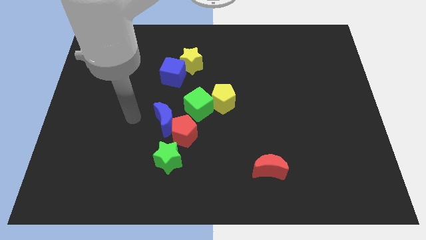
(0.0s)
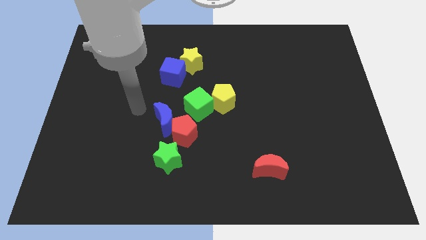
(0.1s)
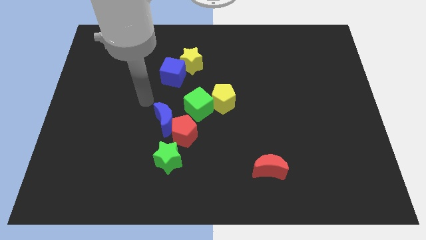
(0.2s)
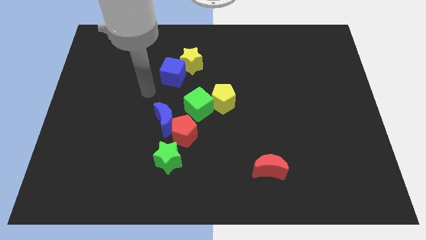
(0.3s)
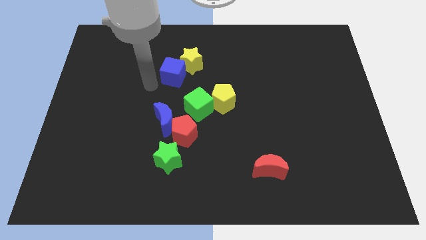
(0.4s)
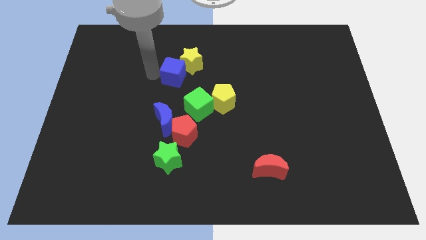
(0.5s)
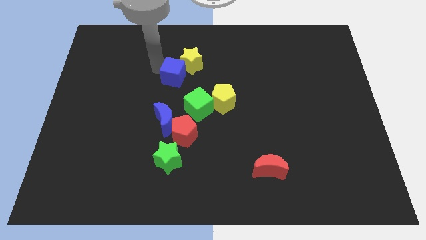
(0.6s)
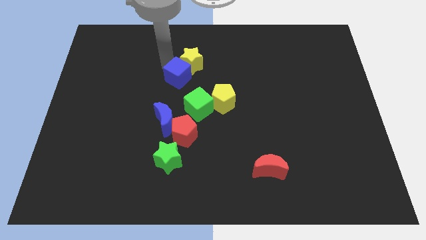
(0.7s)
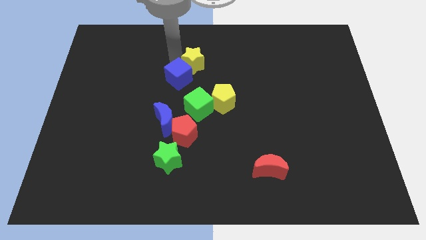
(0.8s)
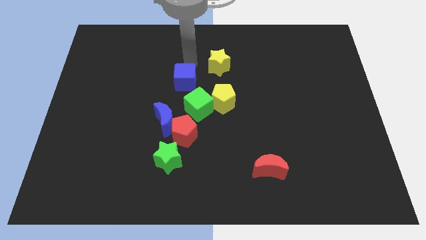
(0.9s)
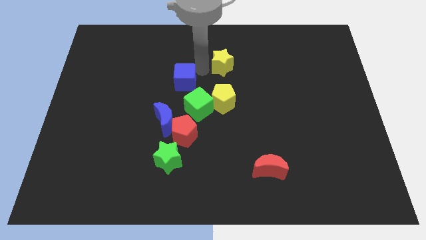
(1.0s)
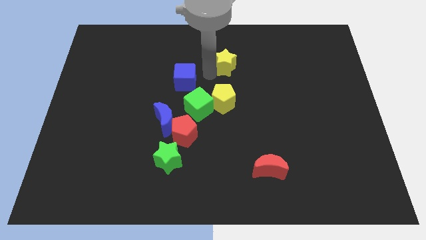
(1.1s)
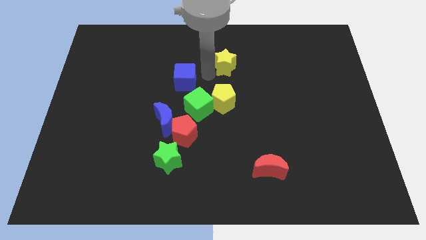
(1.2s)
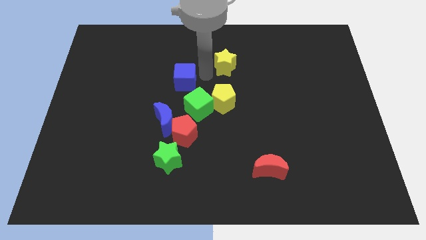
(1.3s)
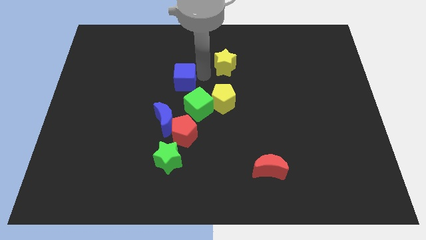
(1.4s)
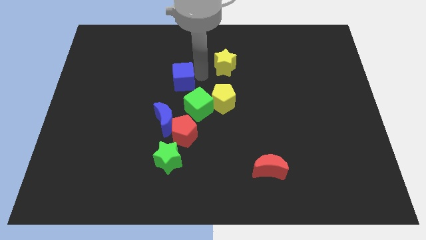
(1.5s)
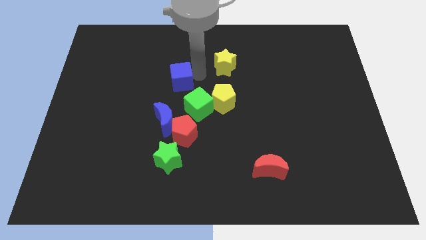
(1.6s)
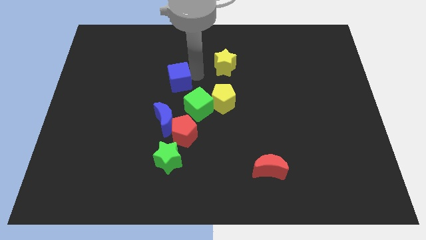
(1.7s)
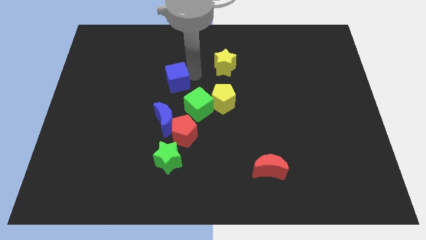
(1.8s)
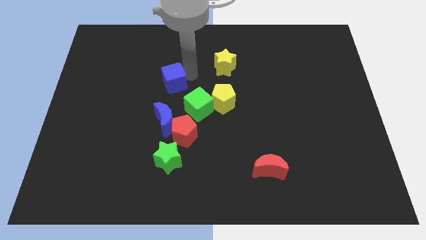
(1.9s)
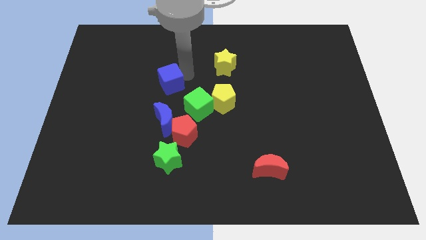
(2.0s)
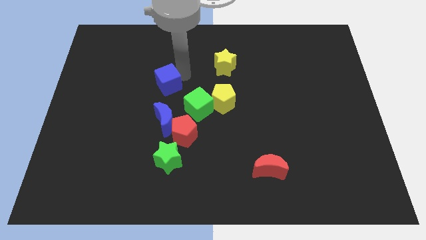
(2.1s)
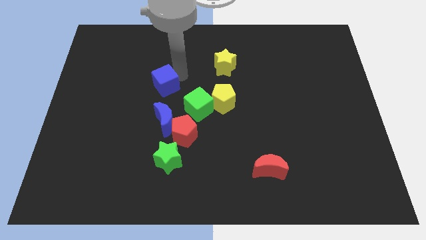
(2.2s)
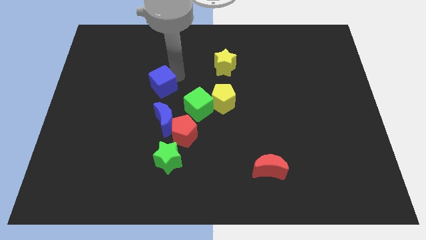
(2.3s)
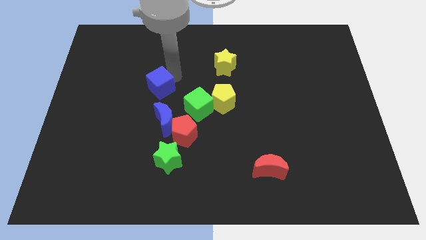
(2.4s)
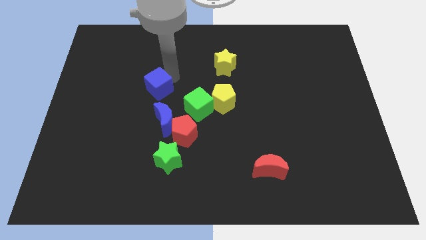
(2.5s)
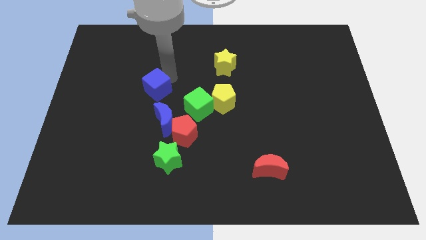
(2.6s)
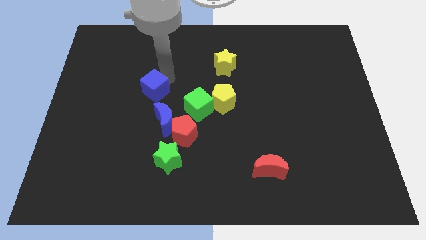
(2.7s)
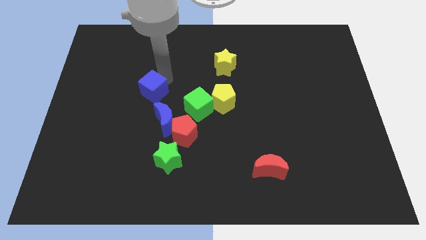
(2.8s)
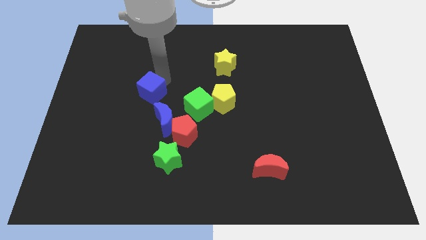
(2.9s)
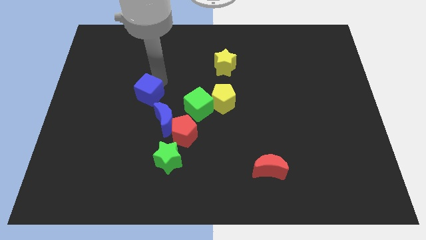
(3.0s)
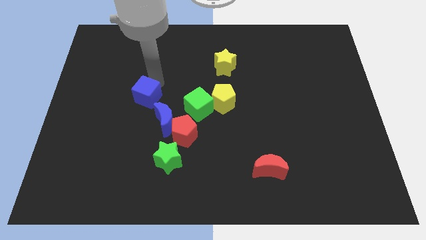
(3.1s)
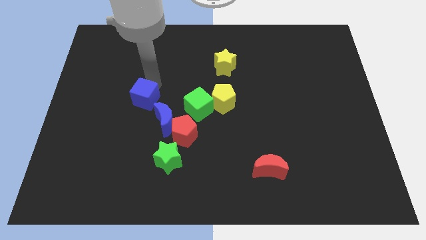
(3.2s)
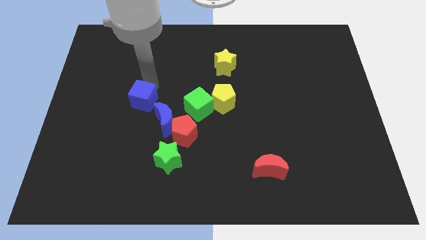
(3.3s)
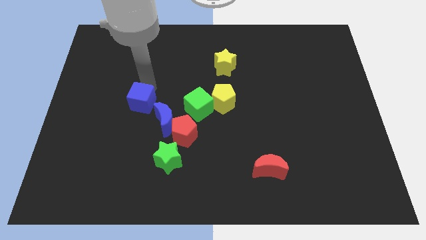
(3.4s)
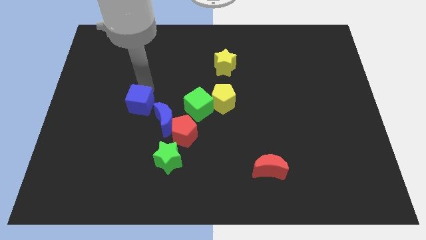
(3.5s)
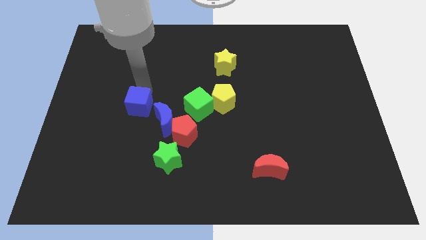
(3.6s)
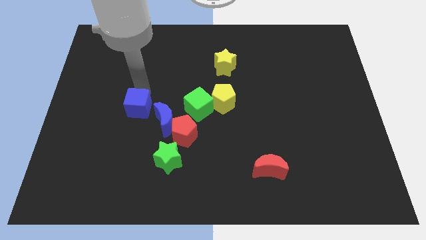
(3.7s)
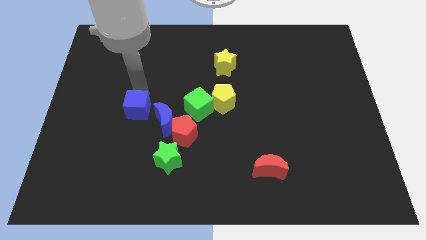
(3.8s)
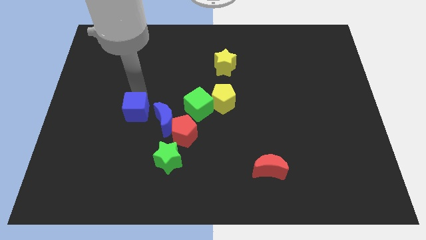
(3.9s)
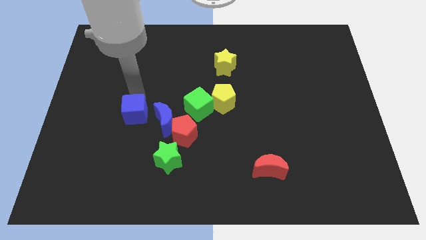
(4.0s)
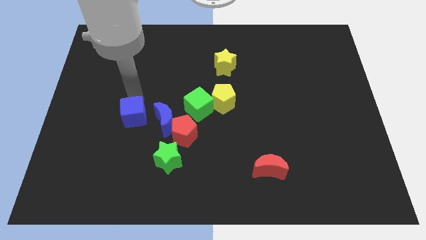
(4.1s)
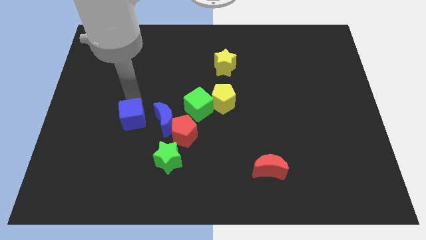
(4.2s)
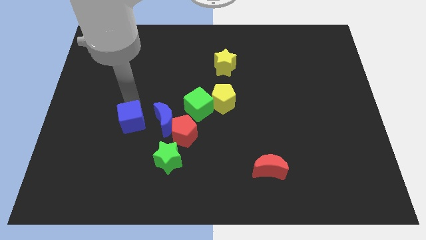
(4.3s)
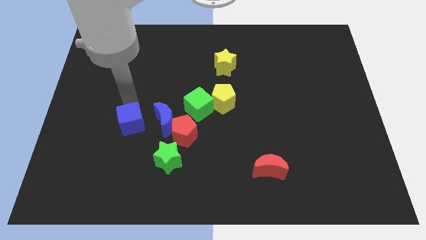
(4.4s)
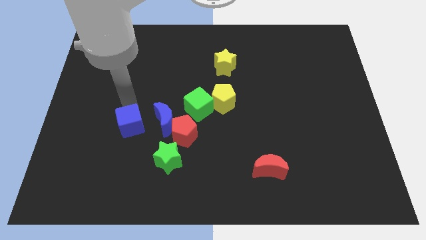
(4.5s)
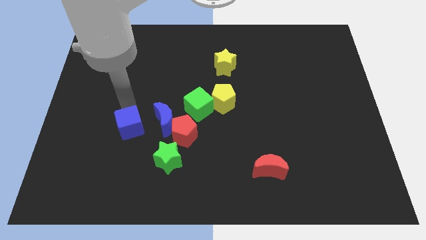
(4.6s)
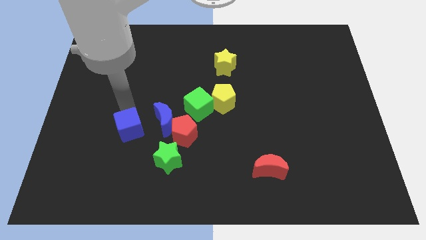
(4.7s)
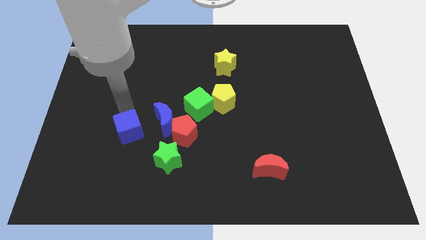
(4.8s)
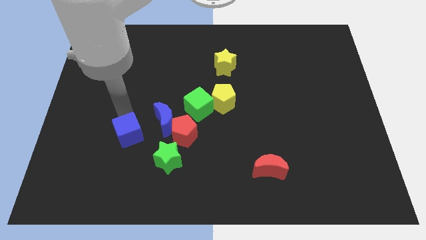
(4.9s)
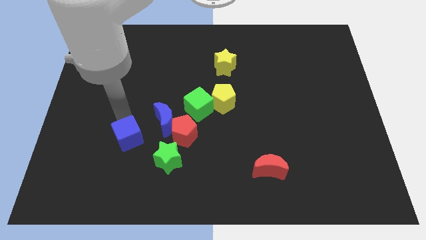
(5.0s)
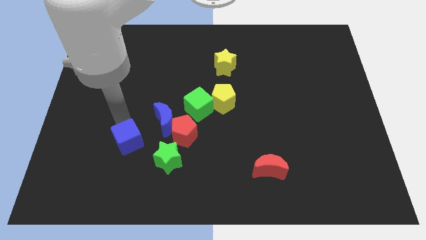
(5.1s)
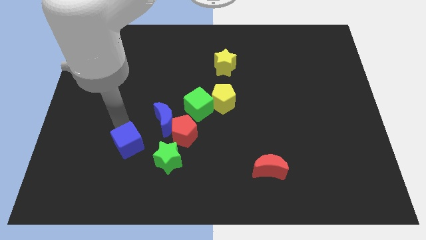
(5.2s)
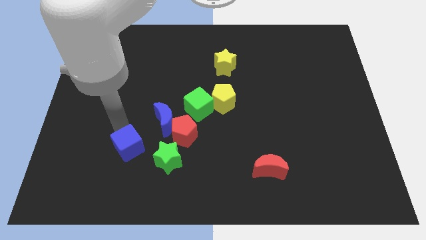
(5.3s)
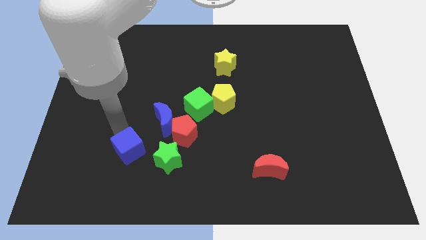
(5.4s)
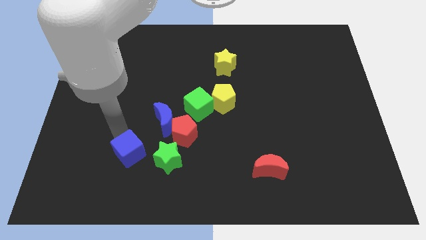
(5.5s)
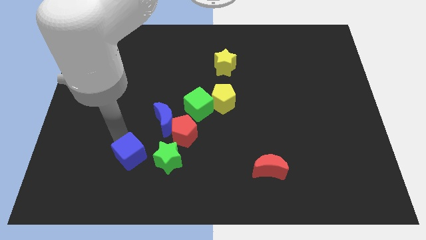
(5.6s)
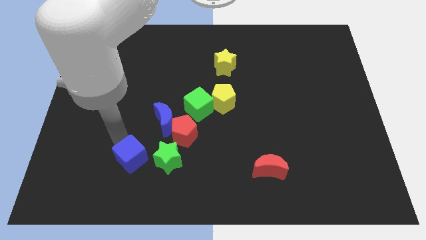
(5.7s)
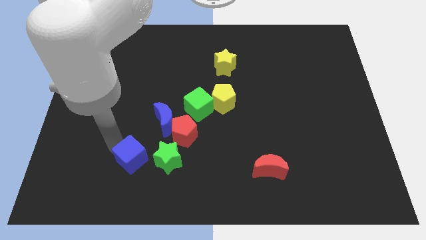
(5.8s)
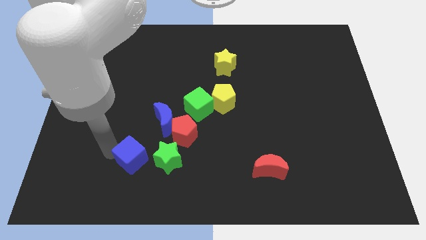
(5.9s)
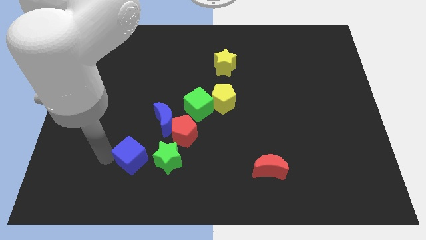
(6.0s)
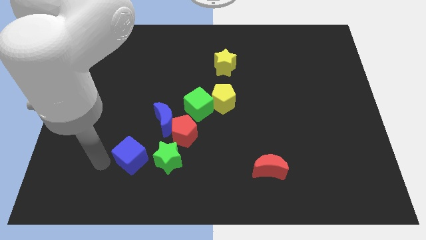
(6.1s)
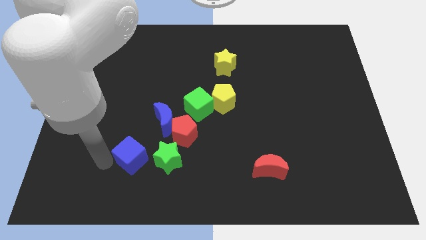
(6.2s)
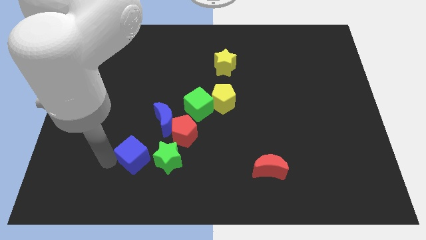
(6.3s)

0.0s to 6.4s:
slide the blue cube to the bottom left side of the red pentagon
